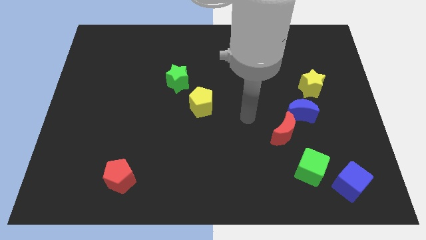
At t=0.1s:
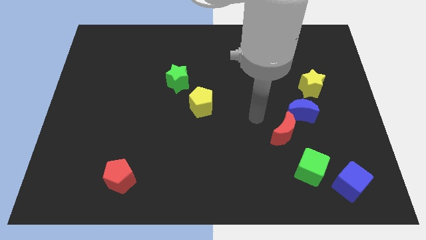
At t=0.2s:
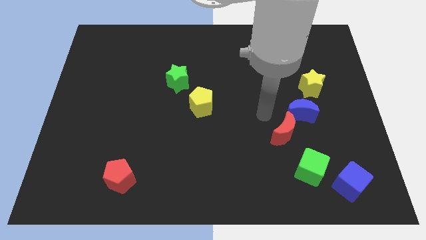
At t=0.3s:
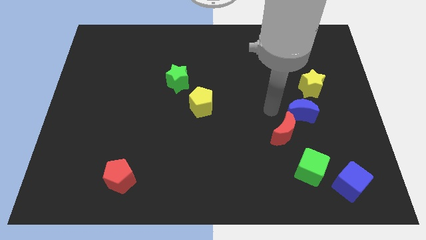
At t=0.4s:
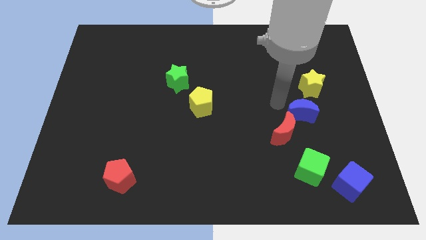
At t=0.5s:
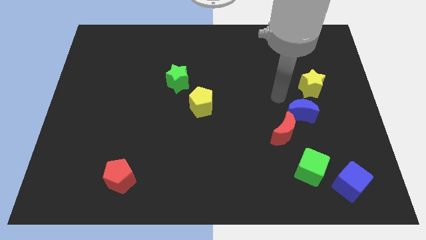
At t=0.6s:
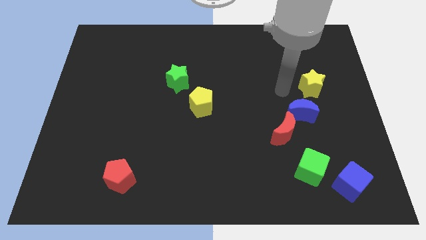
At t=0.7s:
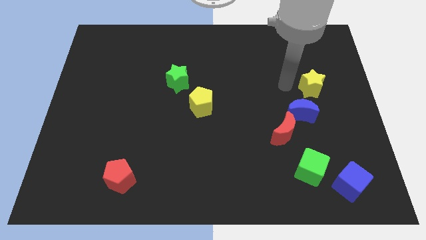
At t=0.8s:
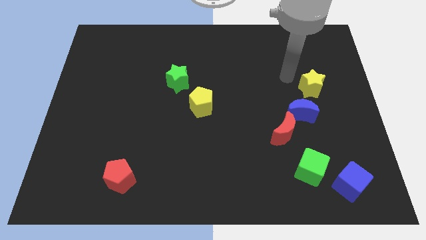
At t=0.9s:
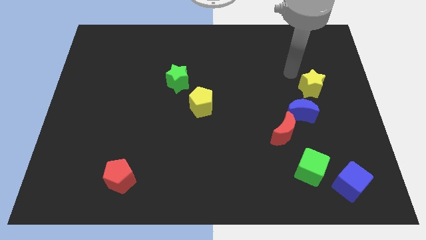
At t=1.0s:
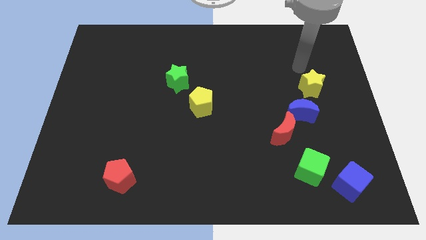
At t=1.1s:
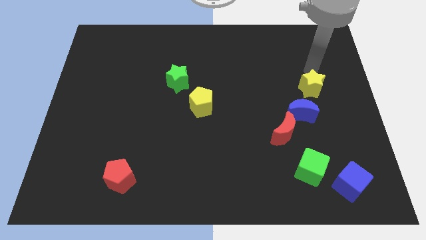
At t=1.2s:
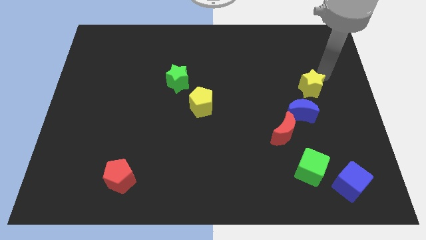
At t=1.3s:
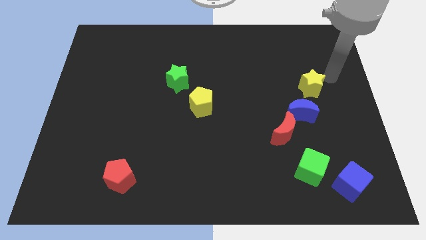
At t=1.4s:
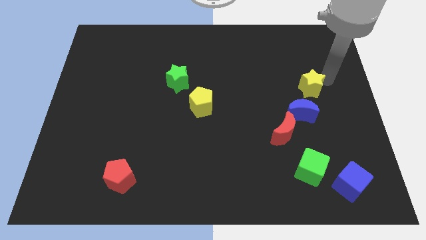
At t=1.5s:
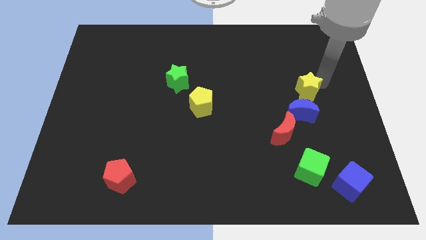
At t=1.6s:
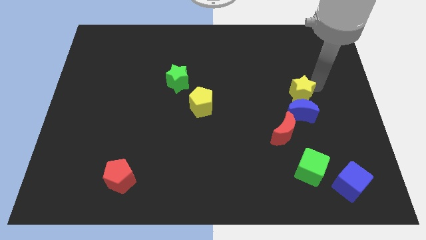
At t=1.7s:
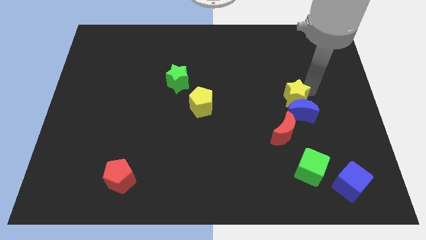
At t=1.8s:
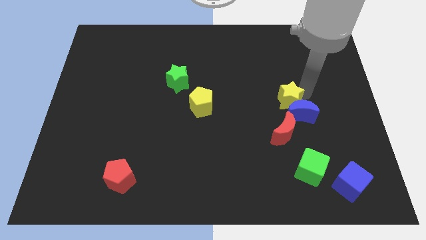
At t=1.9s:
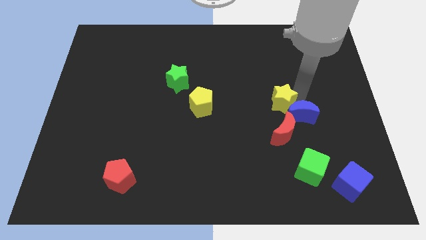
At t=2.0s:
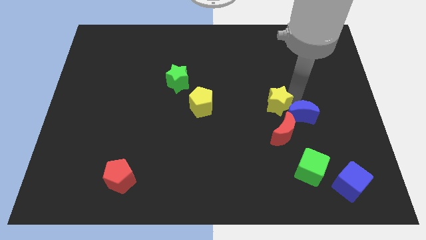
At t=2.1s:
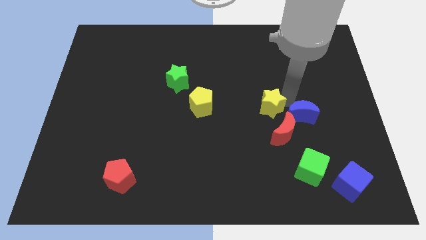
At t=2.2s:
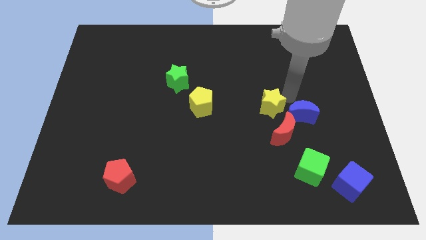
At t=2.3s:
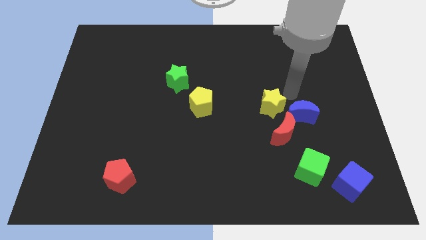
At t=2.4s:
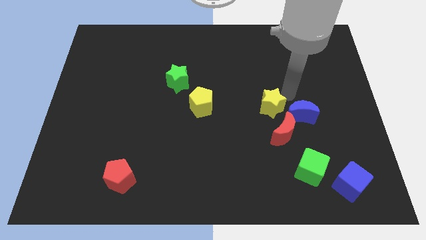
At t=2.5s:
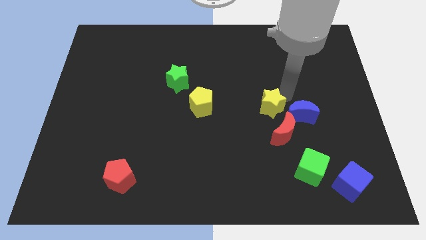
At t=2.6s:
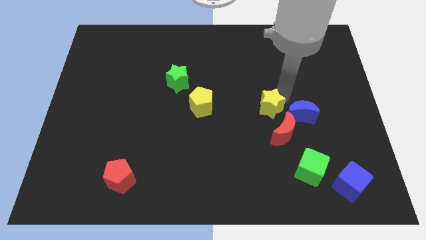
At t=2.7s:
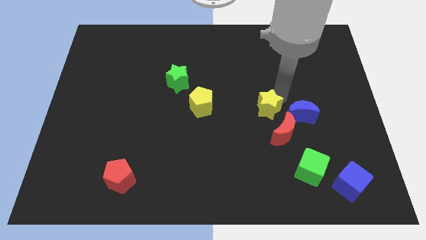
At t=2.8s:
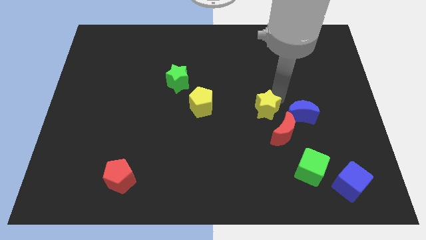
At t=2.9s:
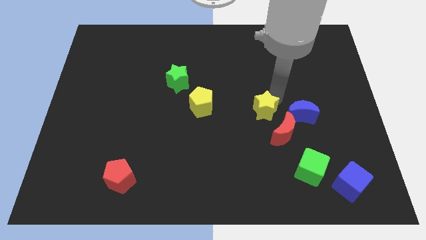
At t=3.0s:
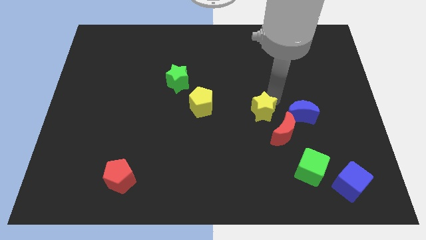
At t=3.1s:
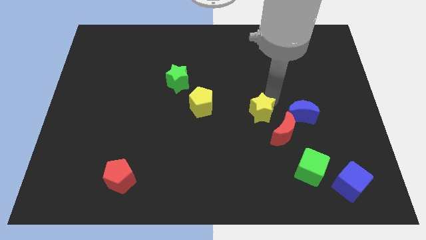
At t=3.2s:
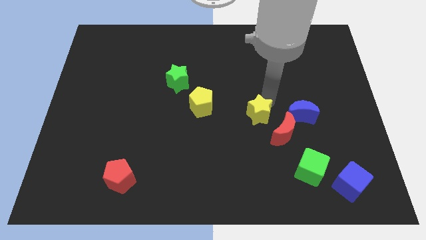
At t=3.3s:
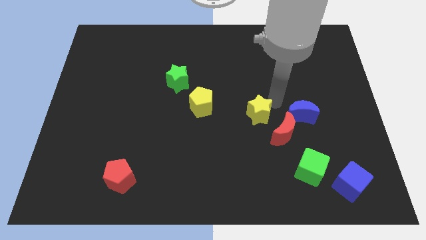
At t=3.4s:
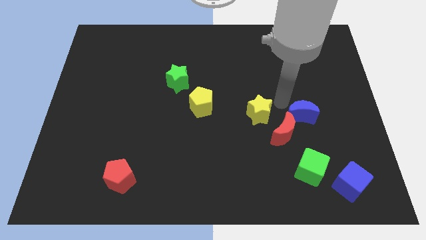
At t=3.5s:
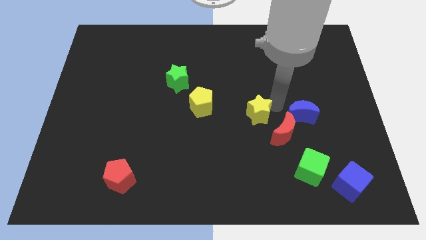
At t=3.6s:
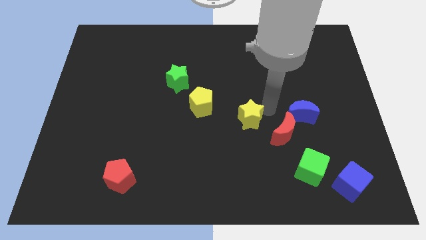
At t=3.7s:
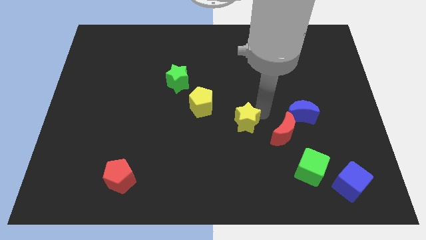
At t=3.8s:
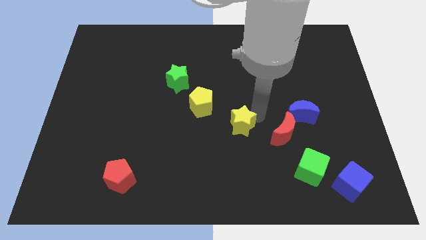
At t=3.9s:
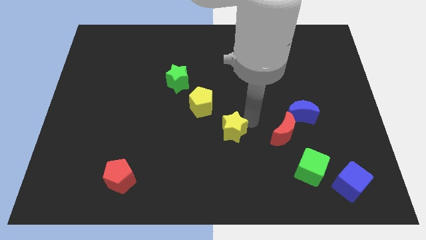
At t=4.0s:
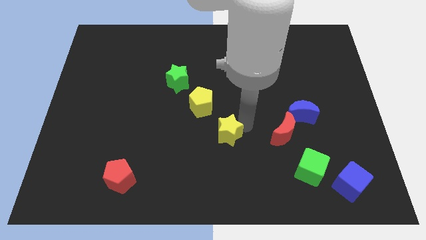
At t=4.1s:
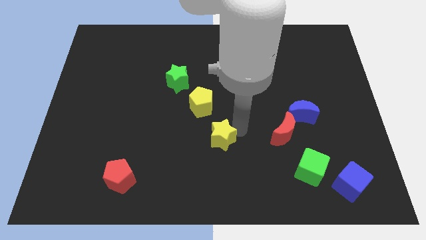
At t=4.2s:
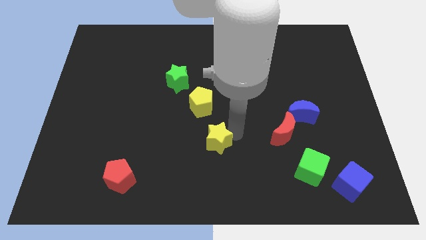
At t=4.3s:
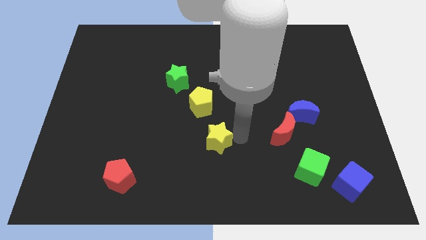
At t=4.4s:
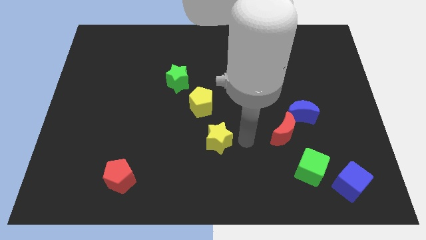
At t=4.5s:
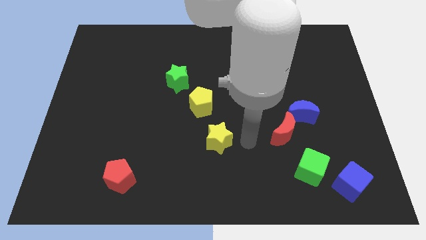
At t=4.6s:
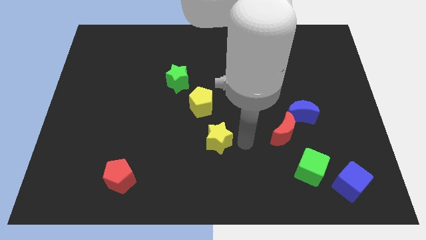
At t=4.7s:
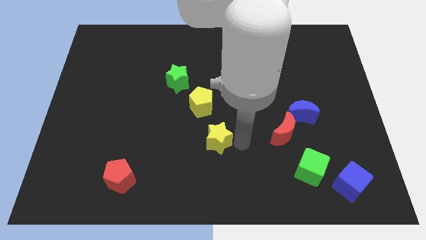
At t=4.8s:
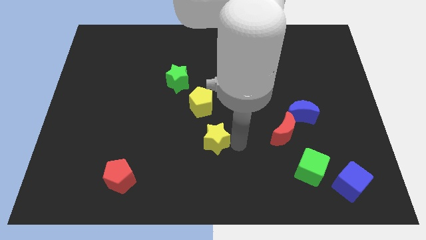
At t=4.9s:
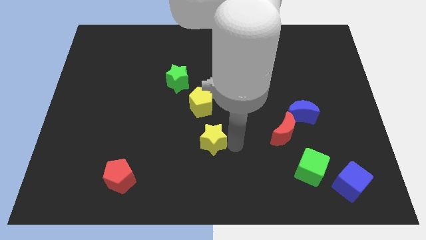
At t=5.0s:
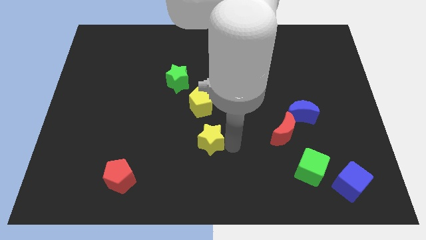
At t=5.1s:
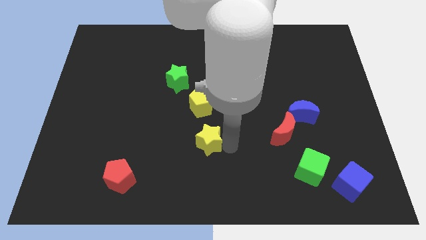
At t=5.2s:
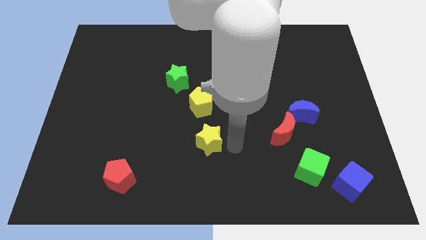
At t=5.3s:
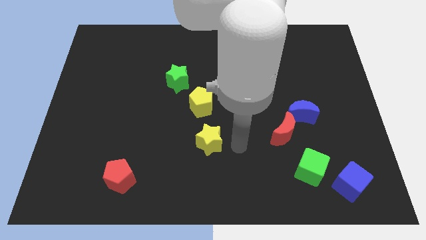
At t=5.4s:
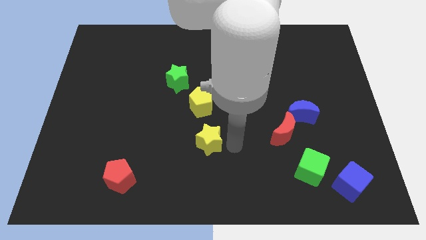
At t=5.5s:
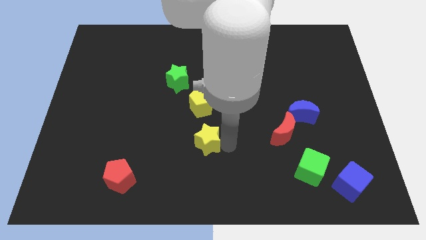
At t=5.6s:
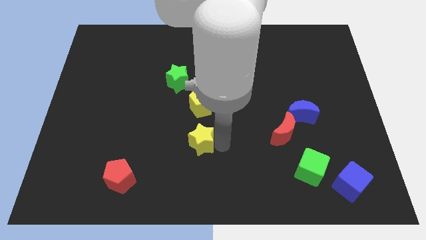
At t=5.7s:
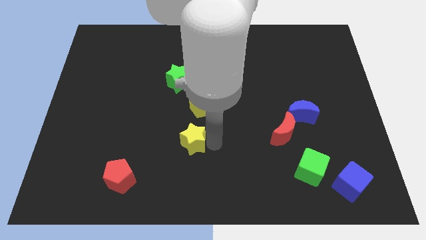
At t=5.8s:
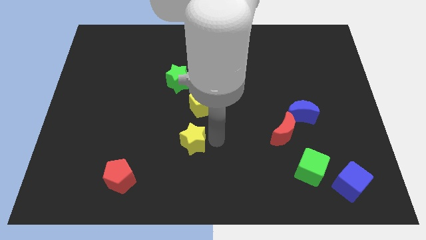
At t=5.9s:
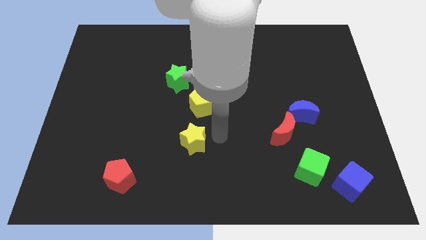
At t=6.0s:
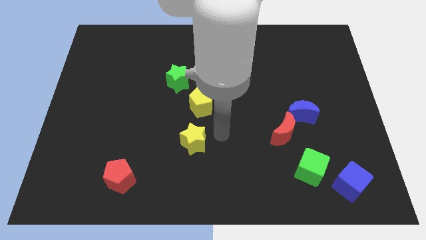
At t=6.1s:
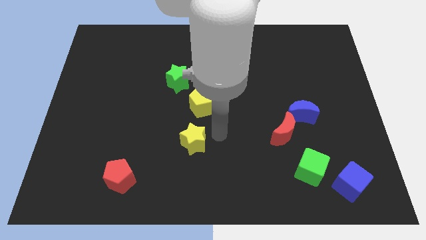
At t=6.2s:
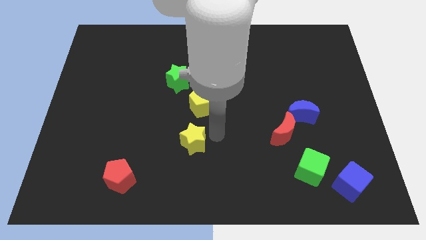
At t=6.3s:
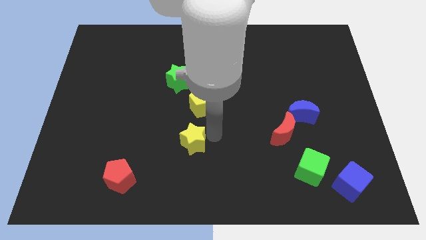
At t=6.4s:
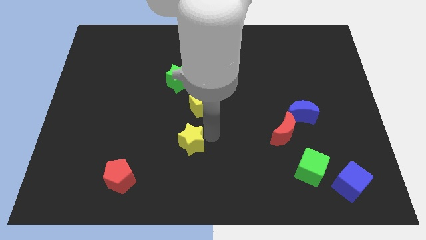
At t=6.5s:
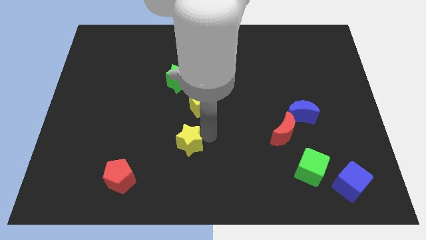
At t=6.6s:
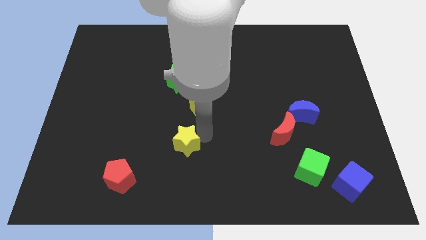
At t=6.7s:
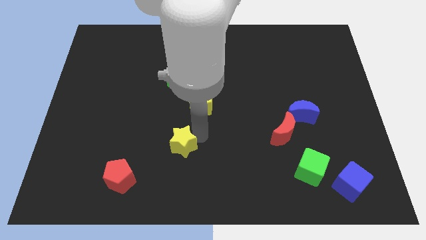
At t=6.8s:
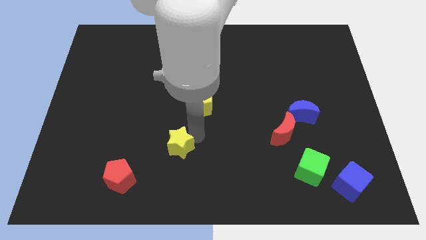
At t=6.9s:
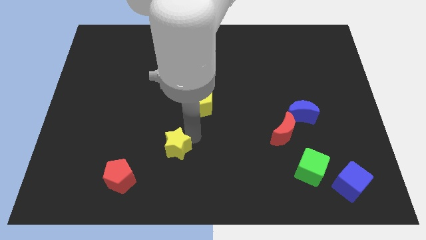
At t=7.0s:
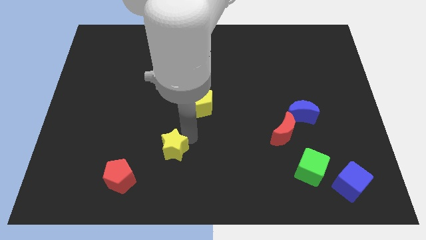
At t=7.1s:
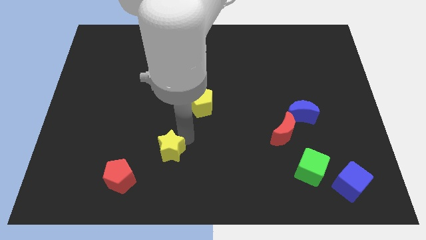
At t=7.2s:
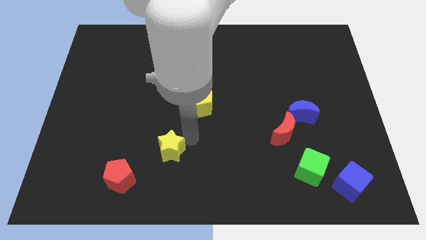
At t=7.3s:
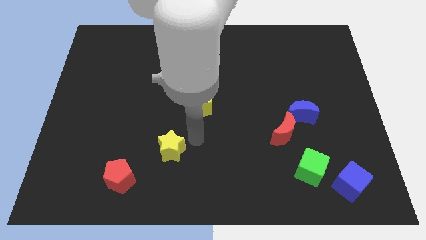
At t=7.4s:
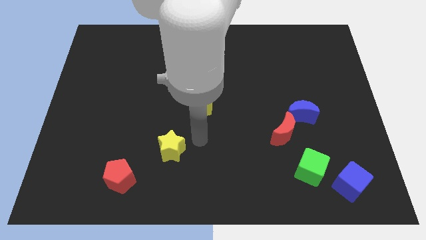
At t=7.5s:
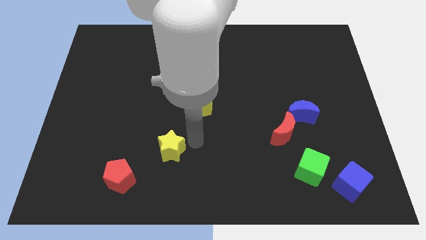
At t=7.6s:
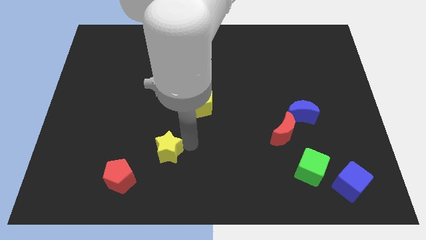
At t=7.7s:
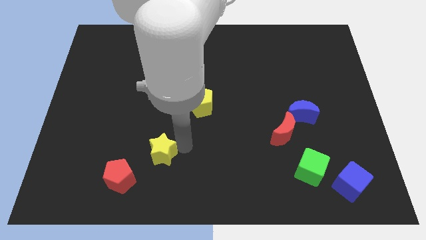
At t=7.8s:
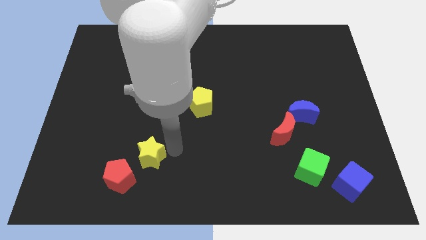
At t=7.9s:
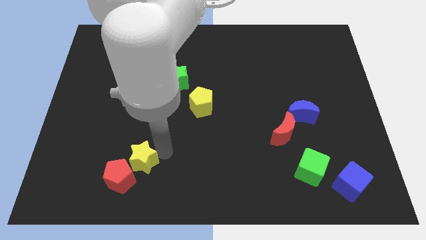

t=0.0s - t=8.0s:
slide the yellow star to the red pentagon
